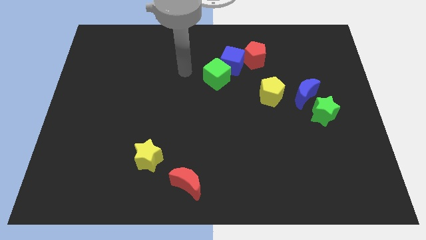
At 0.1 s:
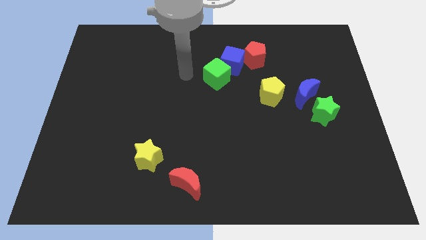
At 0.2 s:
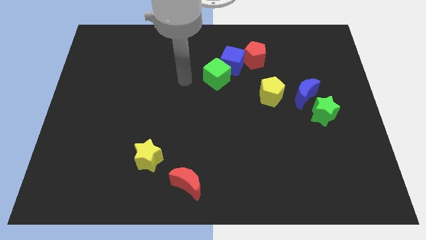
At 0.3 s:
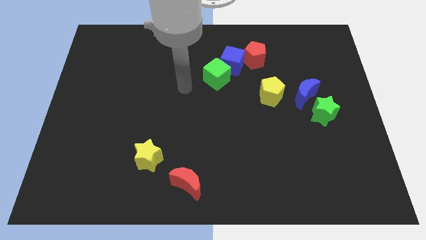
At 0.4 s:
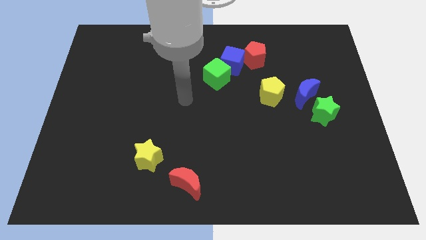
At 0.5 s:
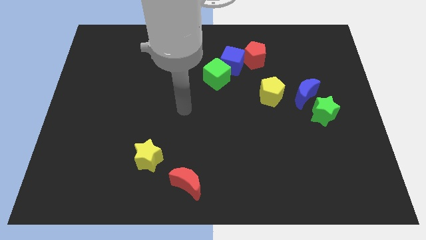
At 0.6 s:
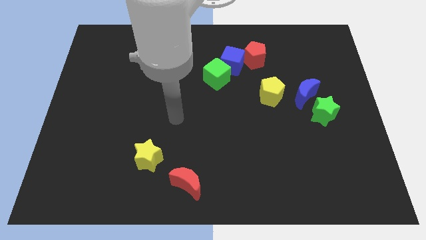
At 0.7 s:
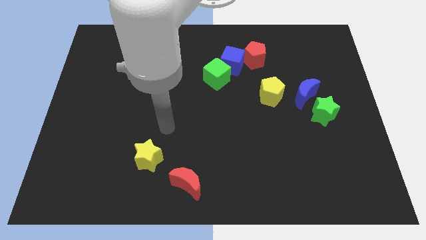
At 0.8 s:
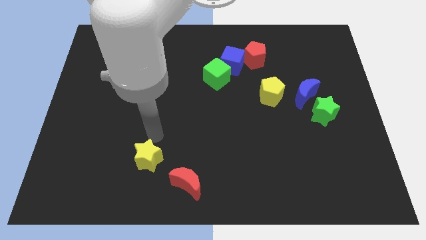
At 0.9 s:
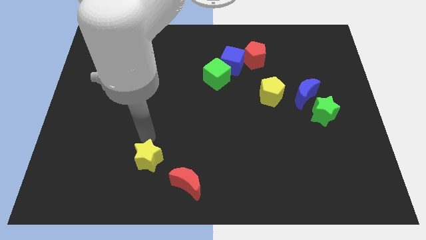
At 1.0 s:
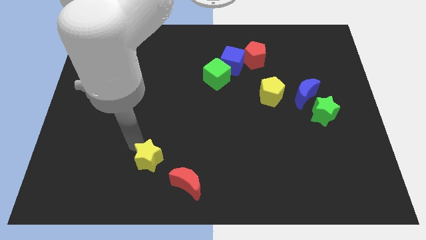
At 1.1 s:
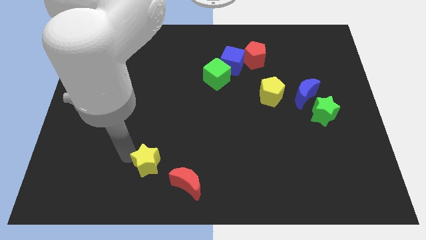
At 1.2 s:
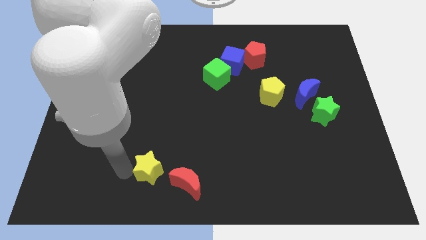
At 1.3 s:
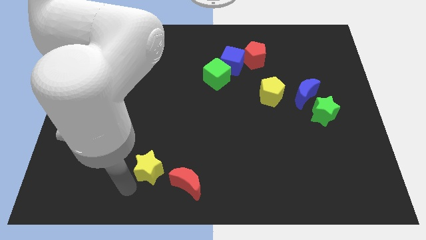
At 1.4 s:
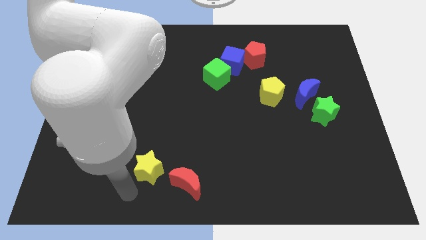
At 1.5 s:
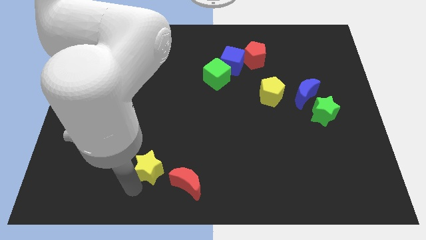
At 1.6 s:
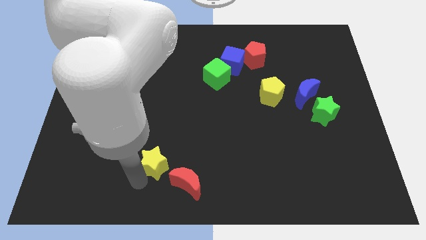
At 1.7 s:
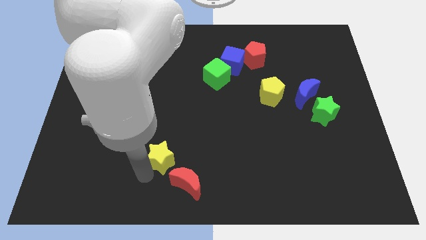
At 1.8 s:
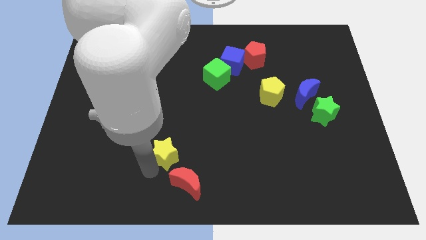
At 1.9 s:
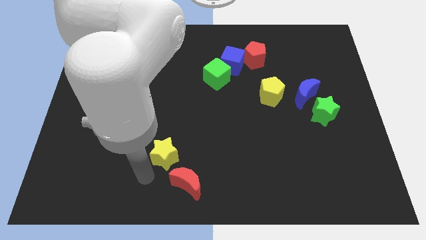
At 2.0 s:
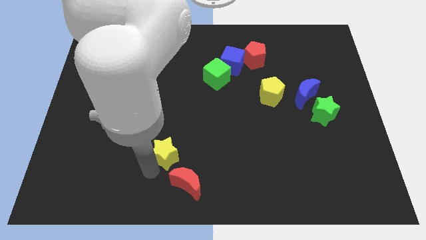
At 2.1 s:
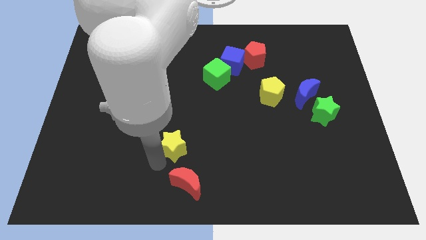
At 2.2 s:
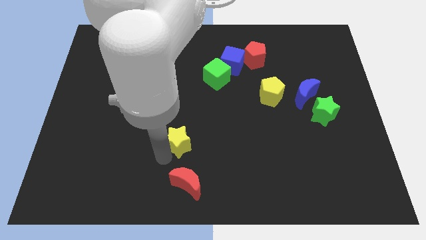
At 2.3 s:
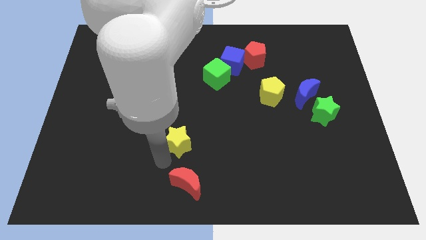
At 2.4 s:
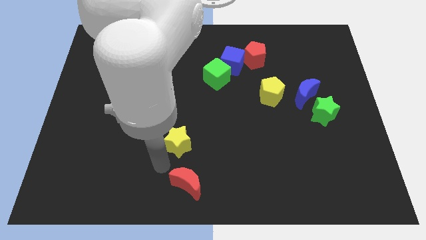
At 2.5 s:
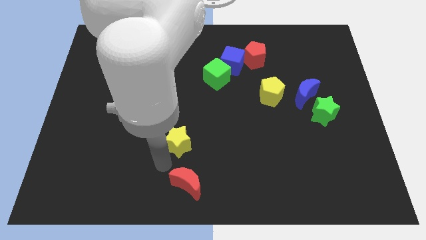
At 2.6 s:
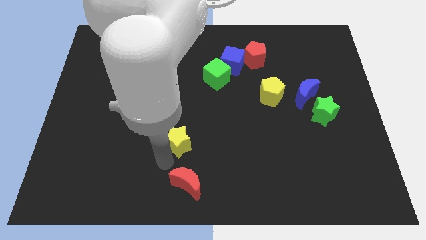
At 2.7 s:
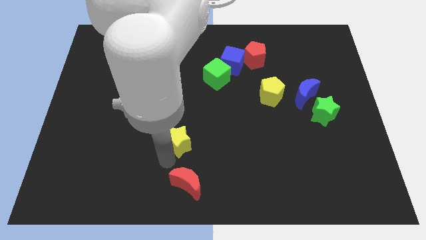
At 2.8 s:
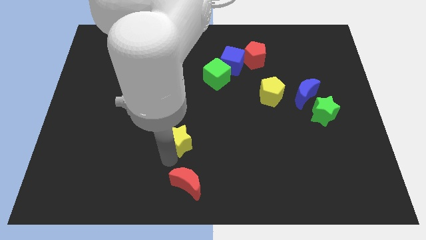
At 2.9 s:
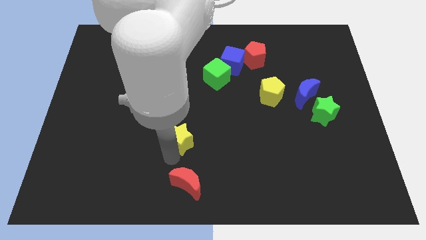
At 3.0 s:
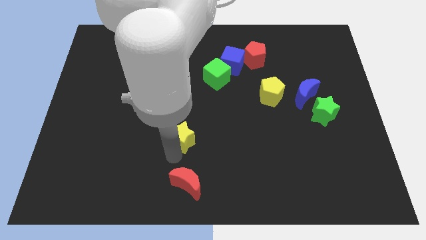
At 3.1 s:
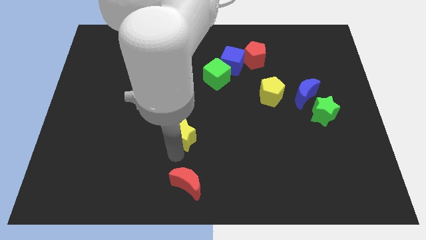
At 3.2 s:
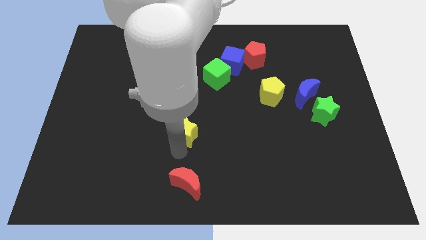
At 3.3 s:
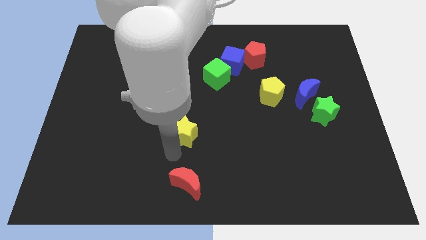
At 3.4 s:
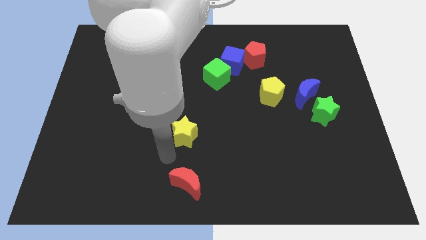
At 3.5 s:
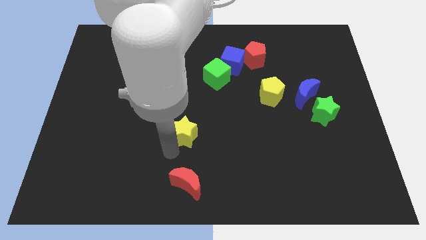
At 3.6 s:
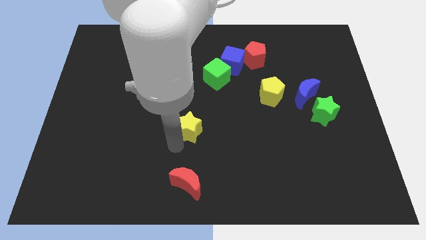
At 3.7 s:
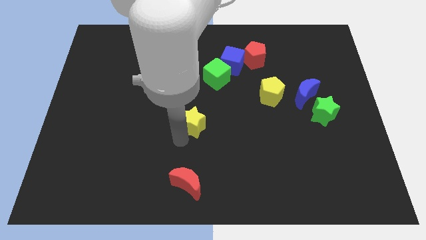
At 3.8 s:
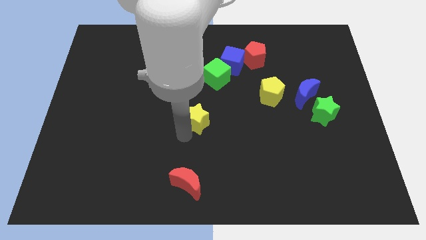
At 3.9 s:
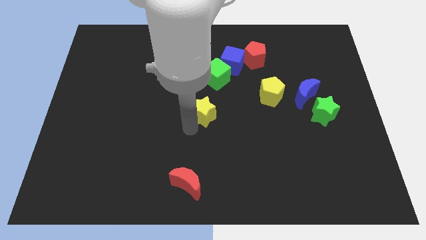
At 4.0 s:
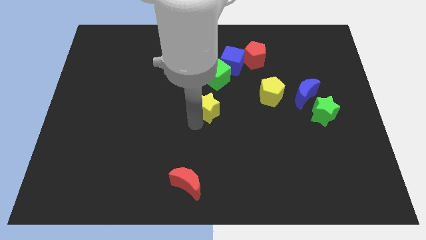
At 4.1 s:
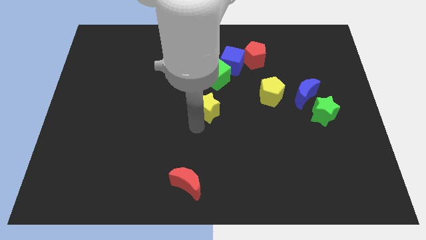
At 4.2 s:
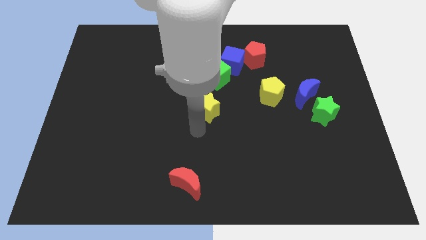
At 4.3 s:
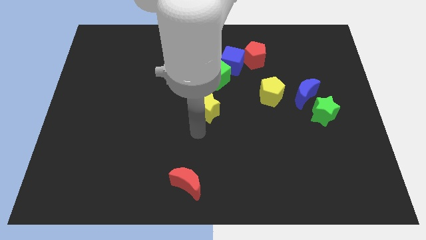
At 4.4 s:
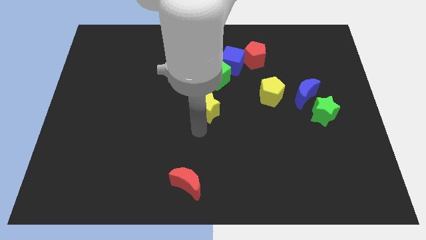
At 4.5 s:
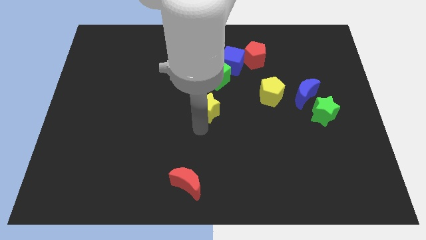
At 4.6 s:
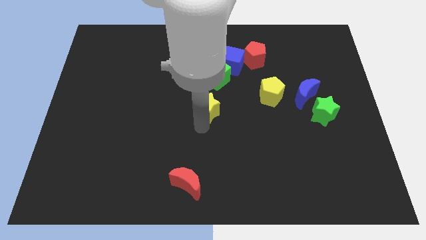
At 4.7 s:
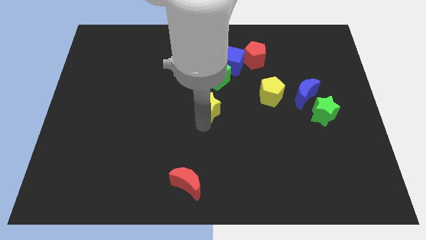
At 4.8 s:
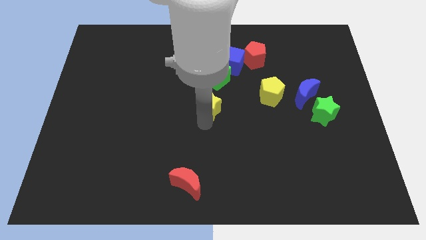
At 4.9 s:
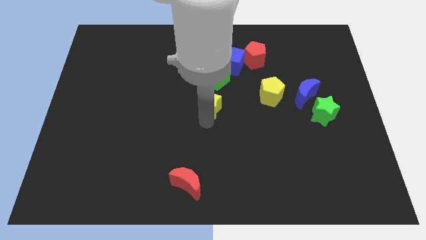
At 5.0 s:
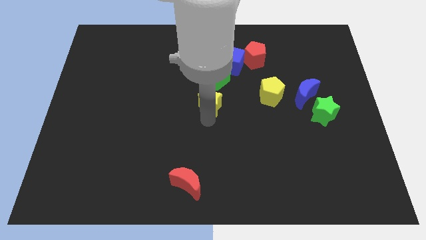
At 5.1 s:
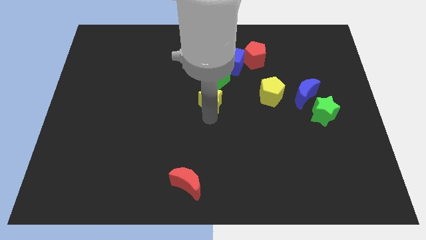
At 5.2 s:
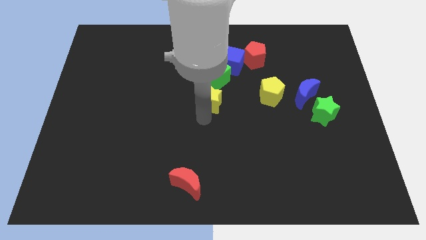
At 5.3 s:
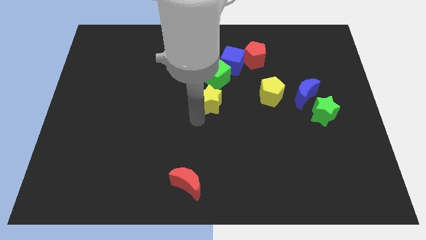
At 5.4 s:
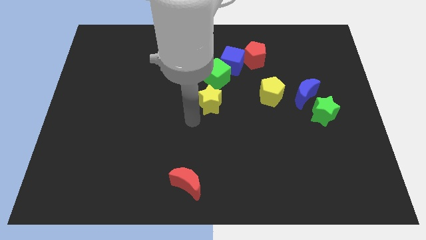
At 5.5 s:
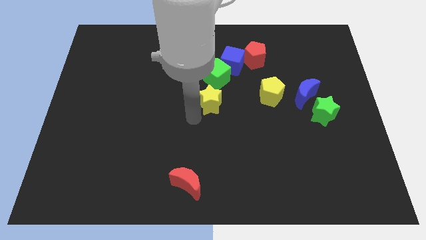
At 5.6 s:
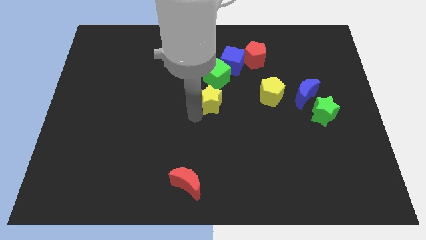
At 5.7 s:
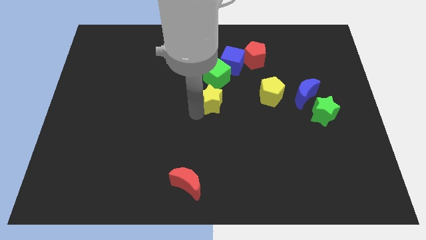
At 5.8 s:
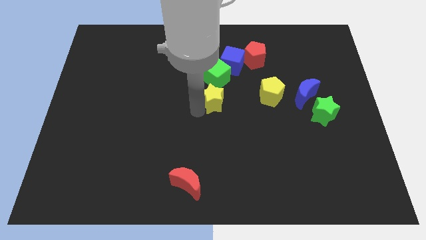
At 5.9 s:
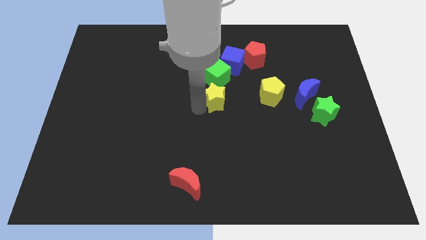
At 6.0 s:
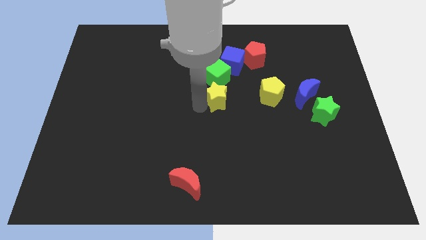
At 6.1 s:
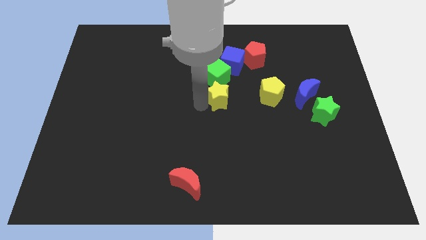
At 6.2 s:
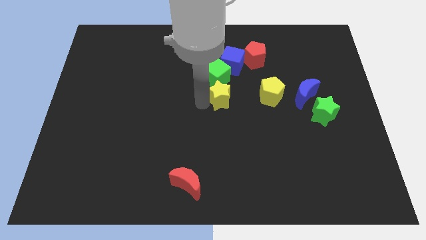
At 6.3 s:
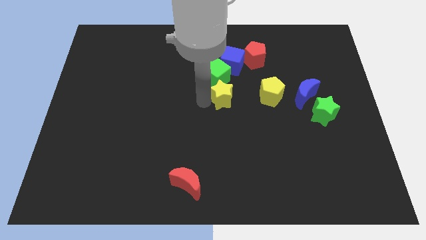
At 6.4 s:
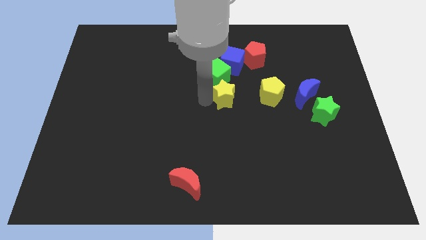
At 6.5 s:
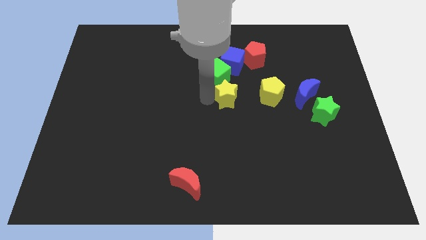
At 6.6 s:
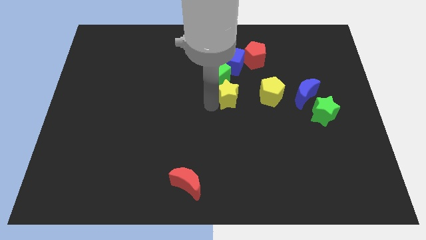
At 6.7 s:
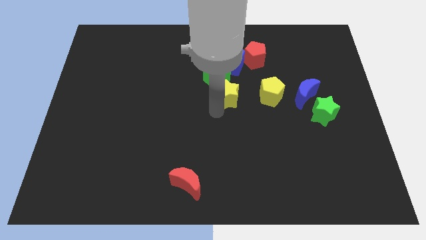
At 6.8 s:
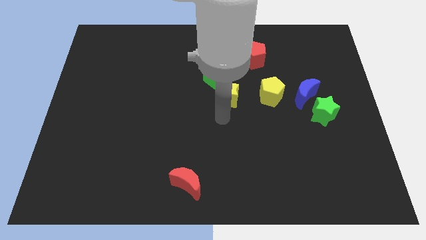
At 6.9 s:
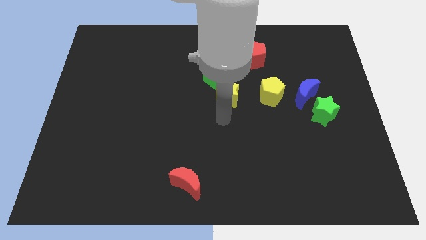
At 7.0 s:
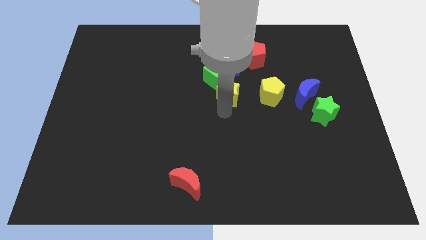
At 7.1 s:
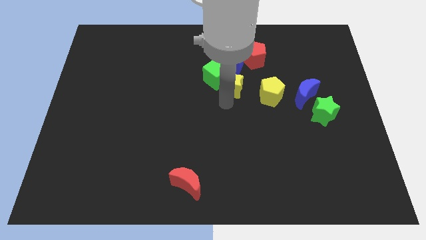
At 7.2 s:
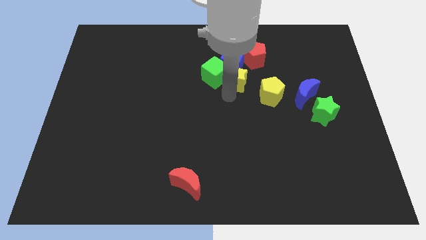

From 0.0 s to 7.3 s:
push the yellow star to the blue cube

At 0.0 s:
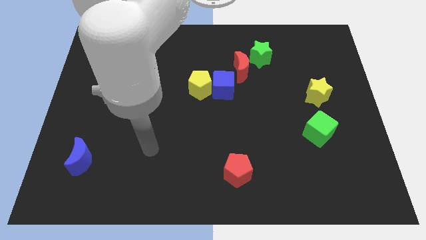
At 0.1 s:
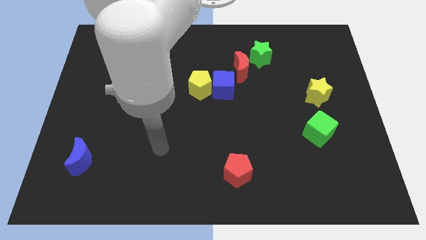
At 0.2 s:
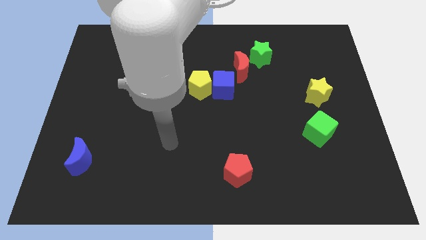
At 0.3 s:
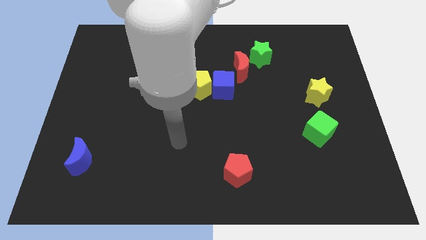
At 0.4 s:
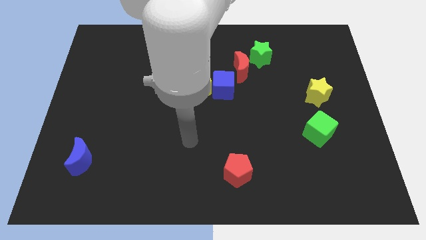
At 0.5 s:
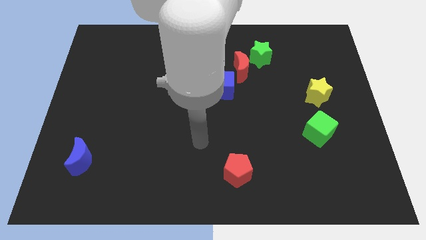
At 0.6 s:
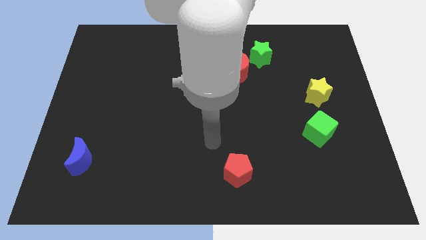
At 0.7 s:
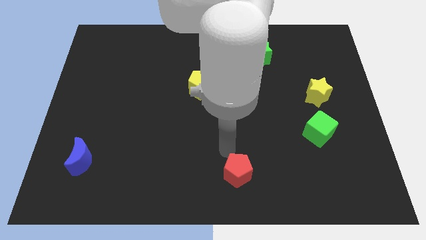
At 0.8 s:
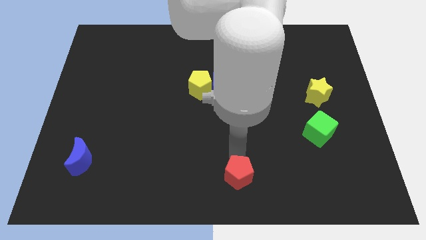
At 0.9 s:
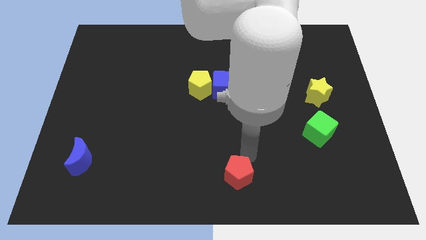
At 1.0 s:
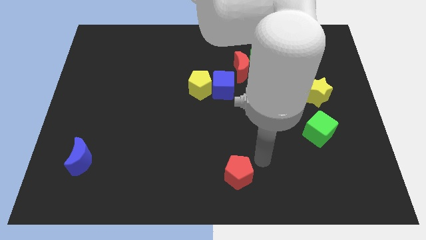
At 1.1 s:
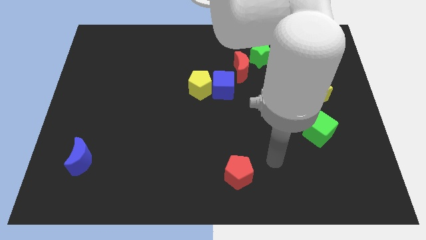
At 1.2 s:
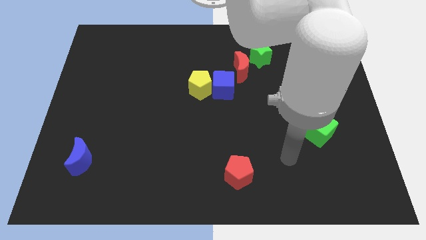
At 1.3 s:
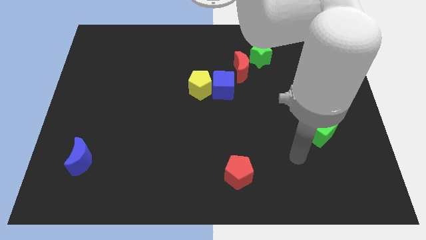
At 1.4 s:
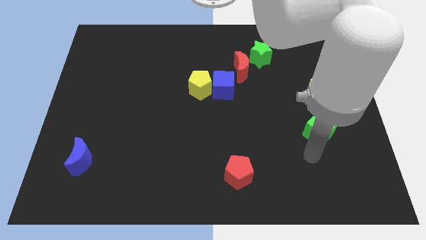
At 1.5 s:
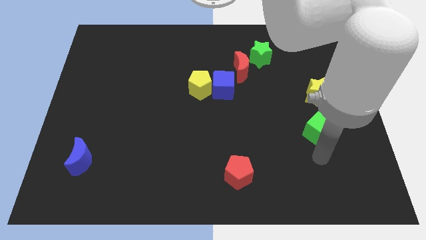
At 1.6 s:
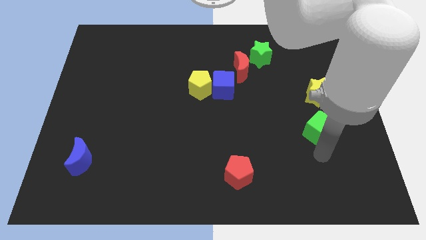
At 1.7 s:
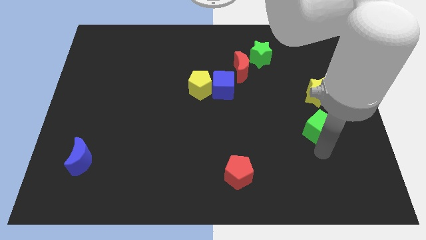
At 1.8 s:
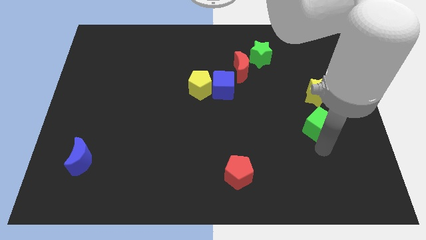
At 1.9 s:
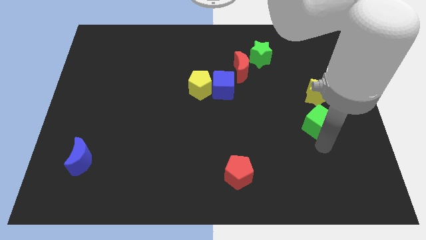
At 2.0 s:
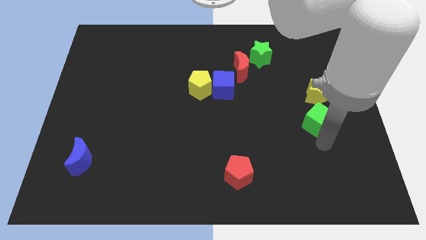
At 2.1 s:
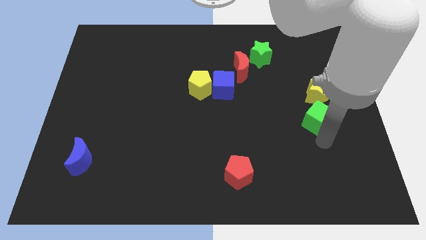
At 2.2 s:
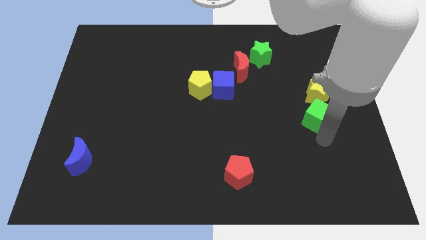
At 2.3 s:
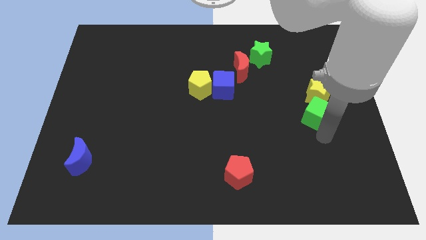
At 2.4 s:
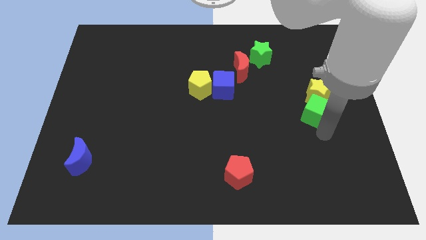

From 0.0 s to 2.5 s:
push the green cube towards the yellow star
